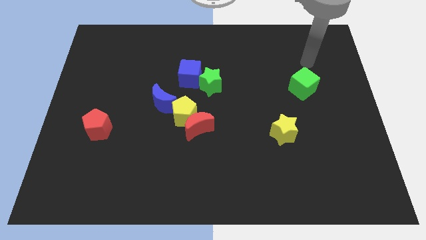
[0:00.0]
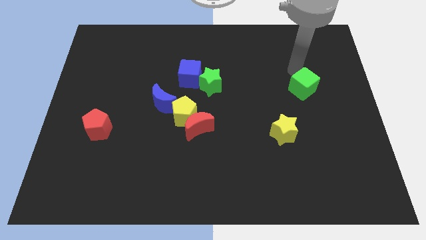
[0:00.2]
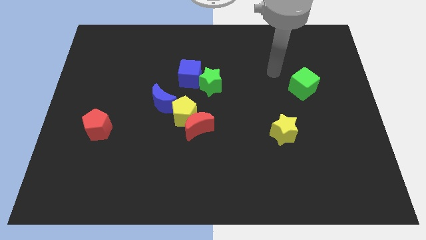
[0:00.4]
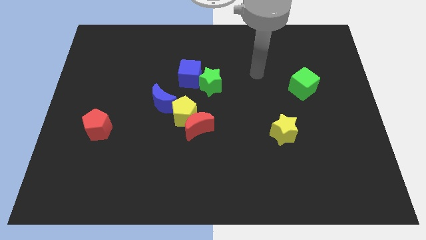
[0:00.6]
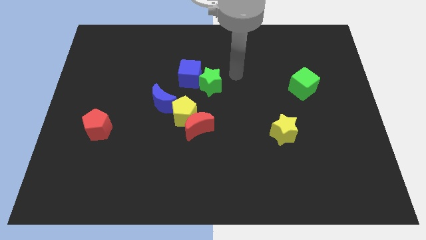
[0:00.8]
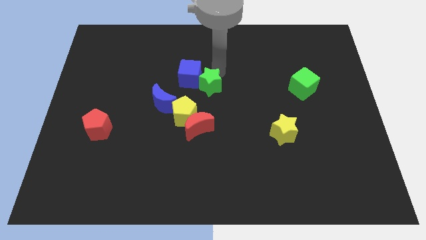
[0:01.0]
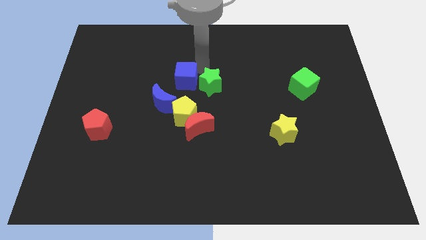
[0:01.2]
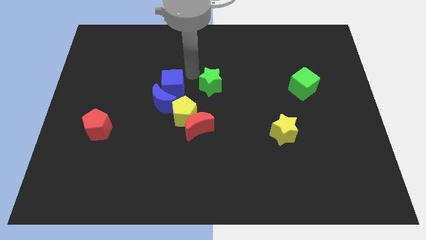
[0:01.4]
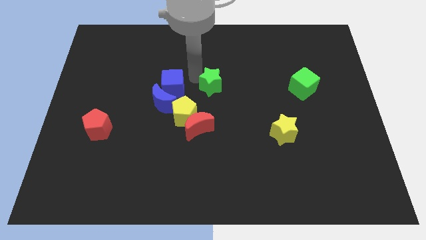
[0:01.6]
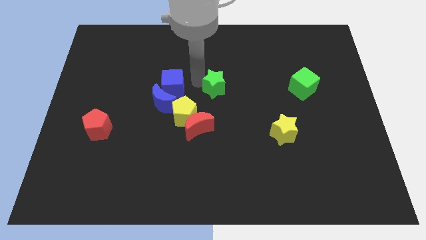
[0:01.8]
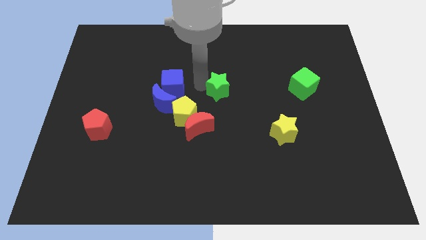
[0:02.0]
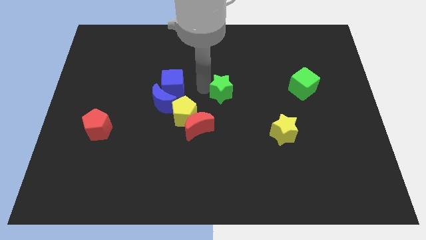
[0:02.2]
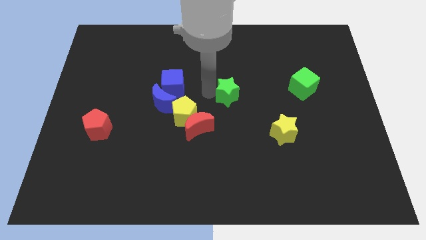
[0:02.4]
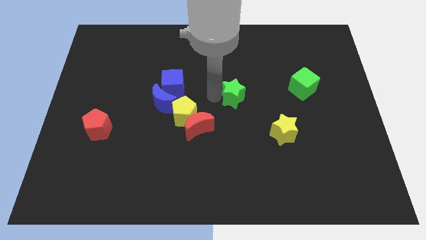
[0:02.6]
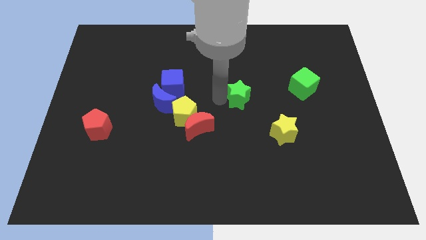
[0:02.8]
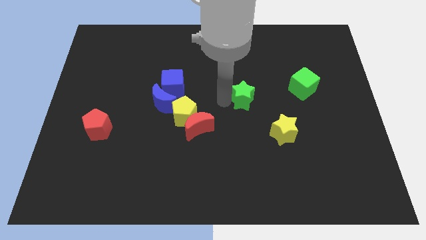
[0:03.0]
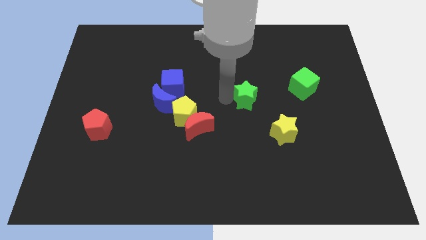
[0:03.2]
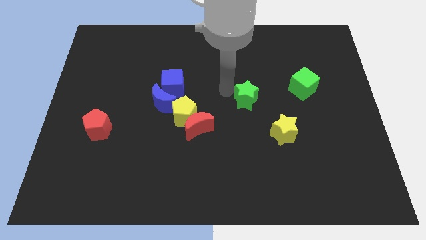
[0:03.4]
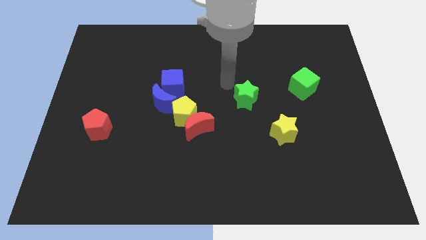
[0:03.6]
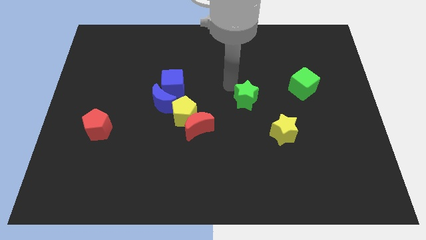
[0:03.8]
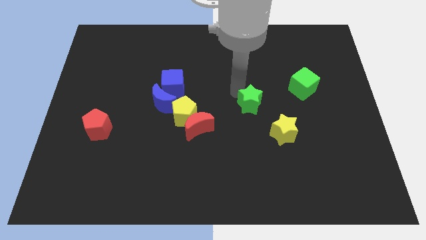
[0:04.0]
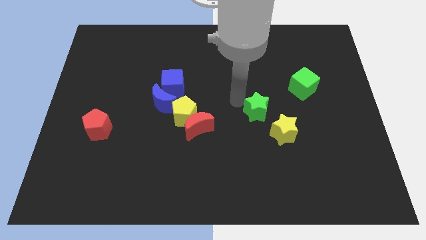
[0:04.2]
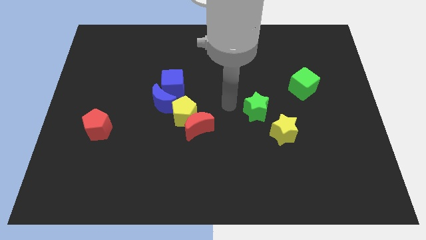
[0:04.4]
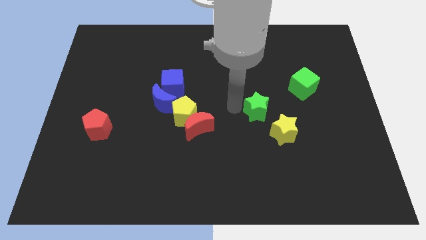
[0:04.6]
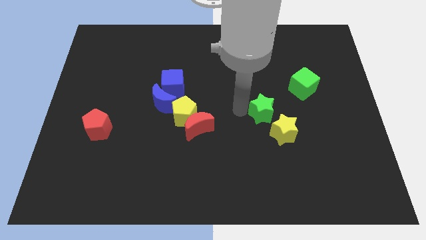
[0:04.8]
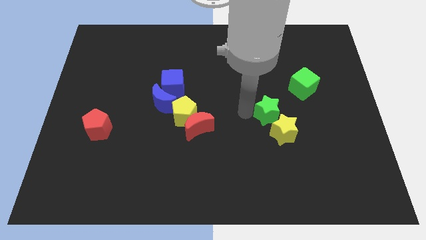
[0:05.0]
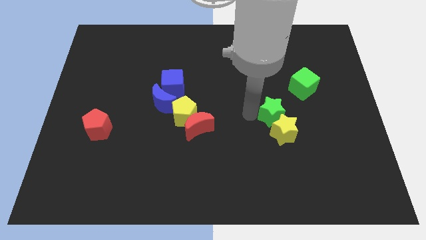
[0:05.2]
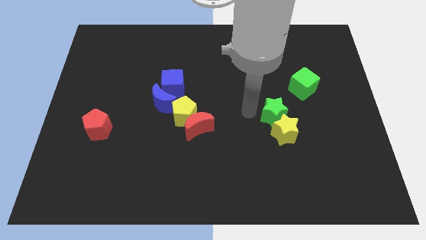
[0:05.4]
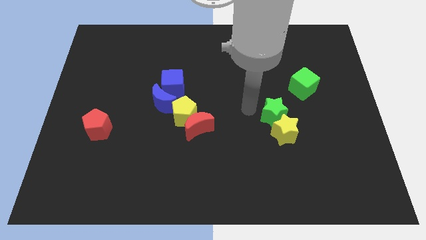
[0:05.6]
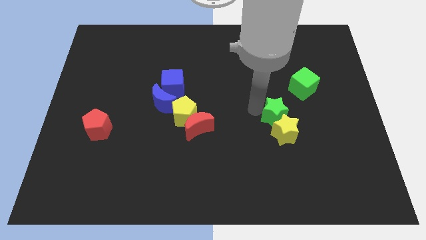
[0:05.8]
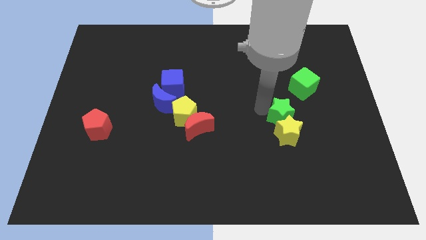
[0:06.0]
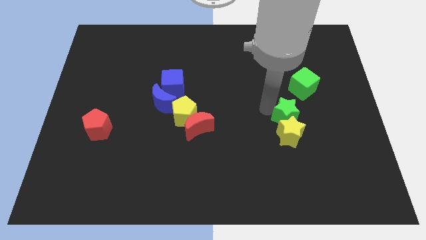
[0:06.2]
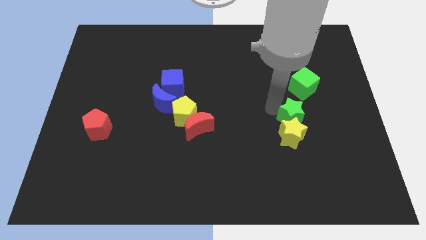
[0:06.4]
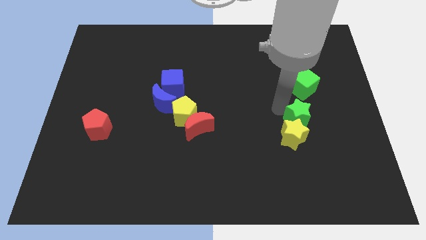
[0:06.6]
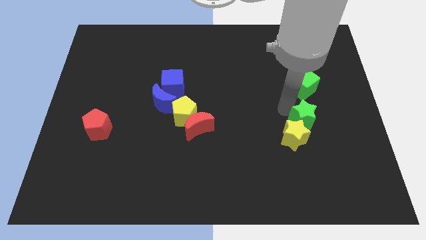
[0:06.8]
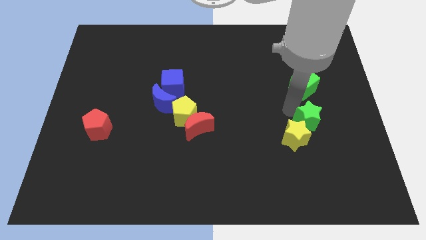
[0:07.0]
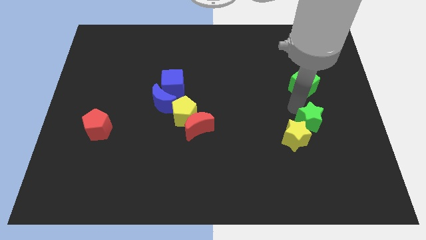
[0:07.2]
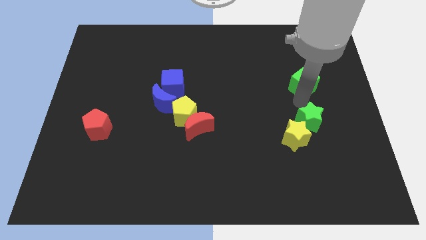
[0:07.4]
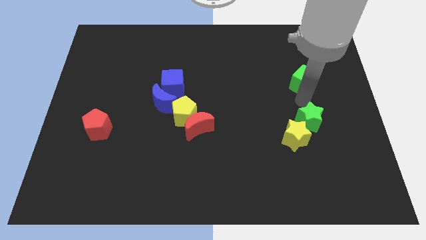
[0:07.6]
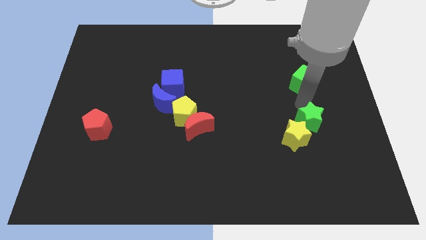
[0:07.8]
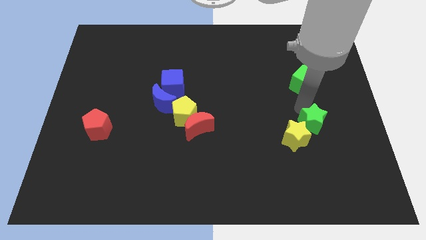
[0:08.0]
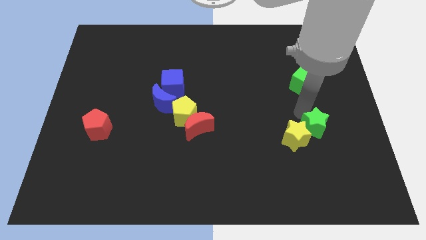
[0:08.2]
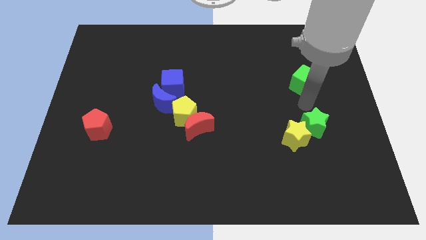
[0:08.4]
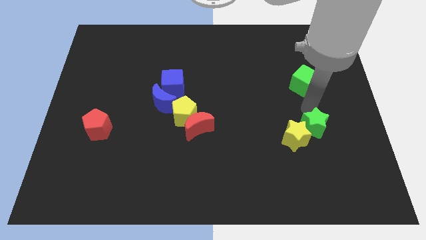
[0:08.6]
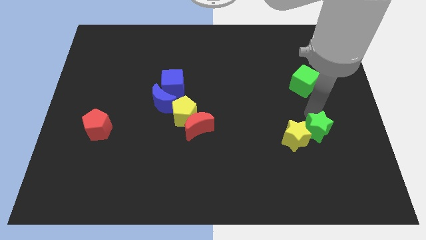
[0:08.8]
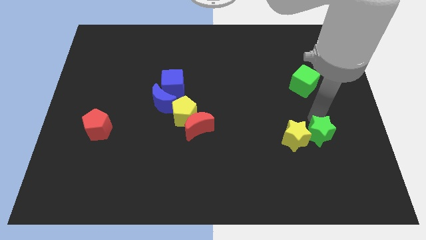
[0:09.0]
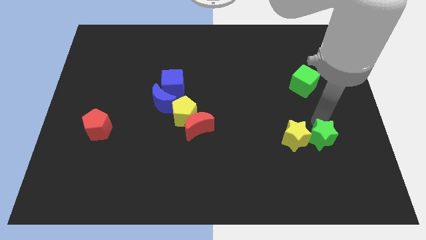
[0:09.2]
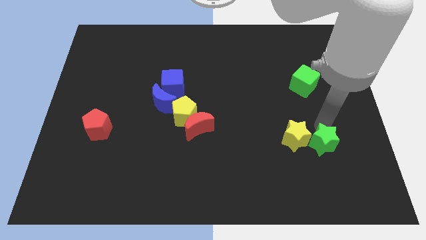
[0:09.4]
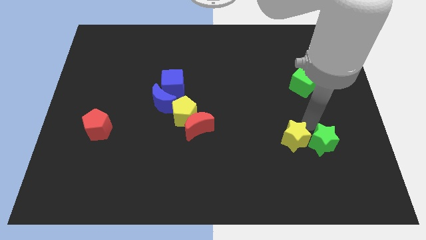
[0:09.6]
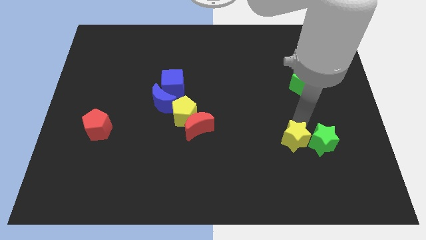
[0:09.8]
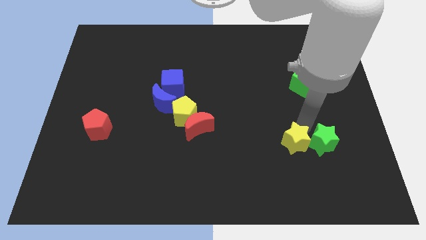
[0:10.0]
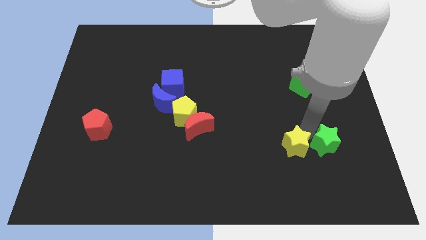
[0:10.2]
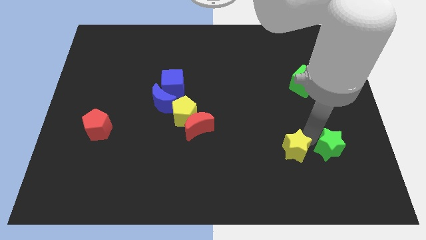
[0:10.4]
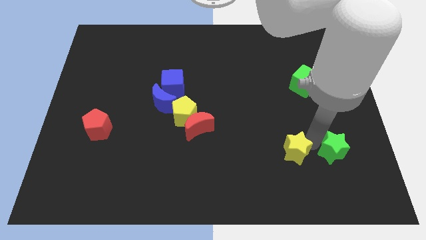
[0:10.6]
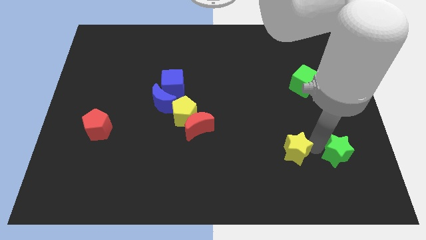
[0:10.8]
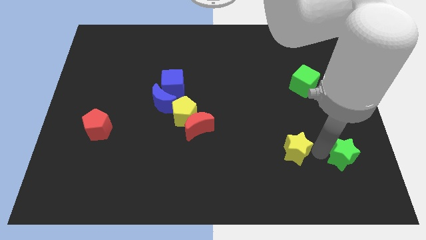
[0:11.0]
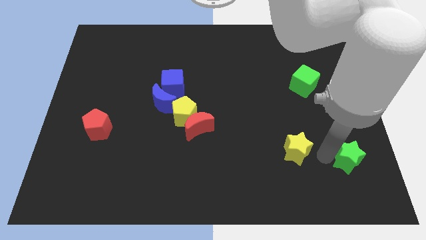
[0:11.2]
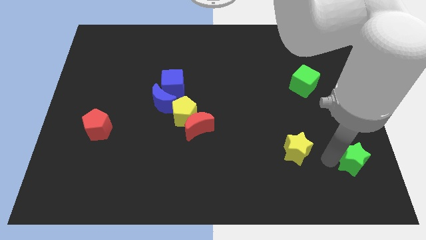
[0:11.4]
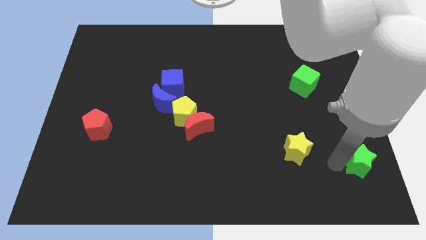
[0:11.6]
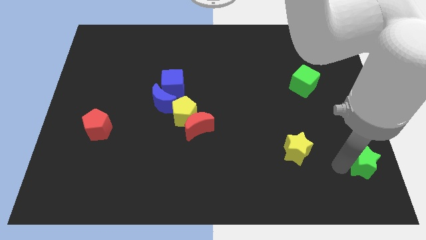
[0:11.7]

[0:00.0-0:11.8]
put the green star to the bottom right of the board
